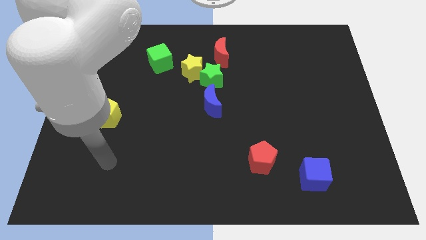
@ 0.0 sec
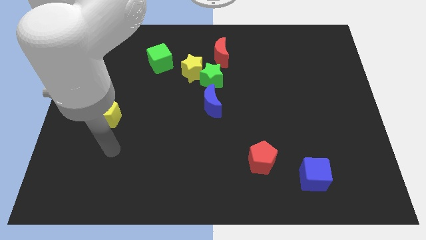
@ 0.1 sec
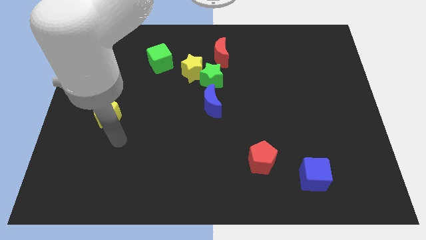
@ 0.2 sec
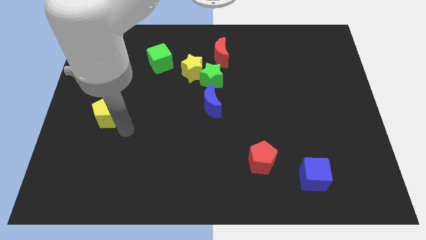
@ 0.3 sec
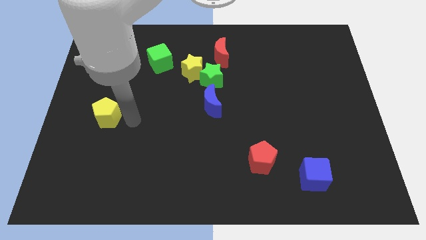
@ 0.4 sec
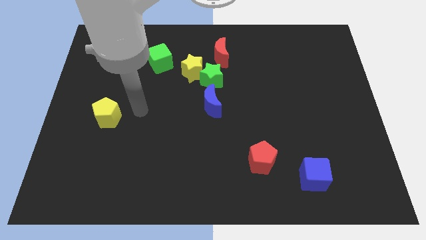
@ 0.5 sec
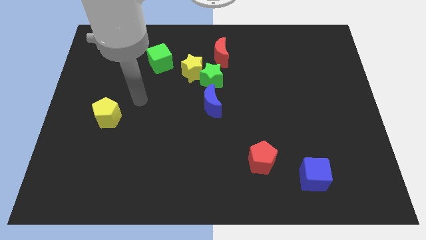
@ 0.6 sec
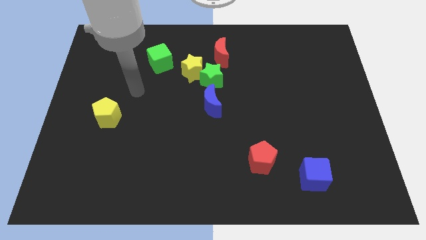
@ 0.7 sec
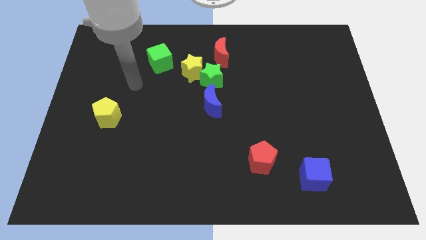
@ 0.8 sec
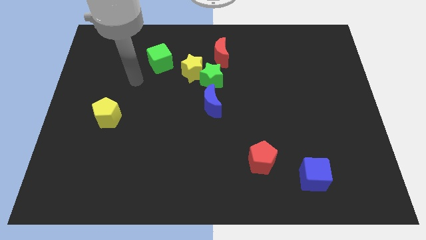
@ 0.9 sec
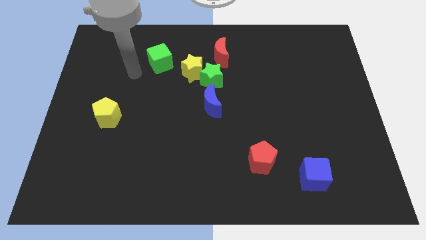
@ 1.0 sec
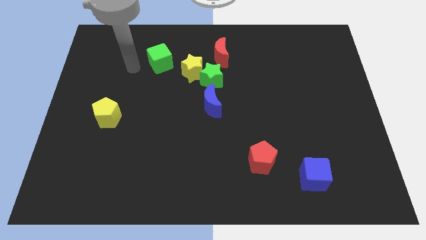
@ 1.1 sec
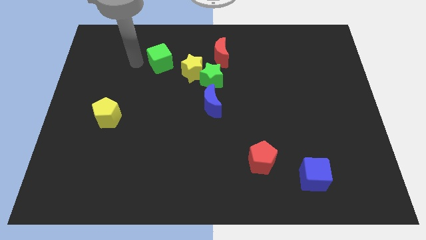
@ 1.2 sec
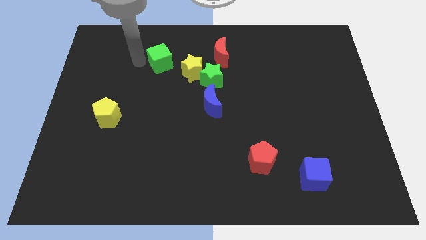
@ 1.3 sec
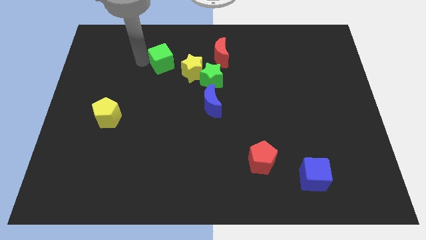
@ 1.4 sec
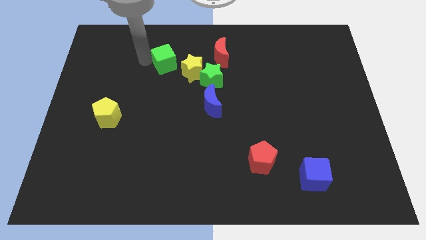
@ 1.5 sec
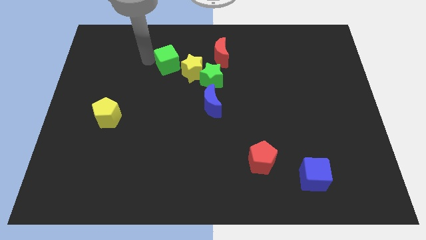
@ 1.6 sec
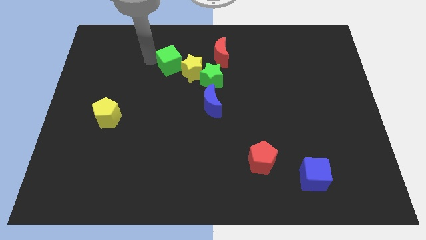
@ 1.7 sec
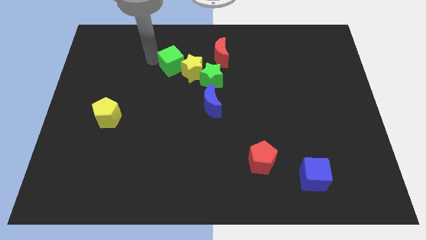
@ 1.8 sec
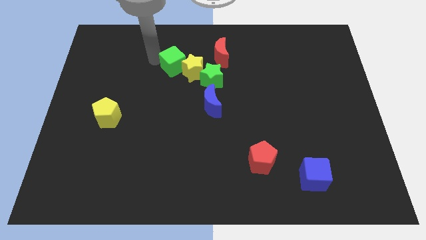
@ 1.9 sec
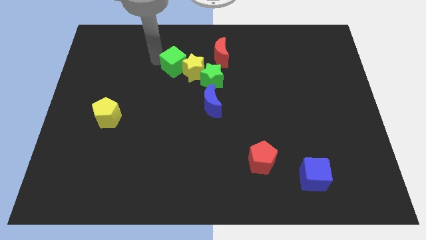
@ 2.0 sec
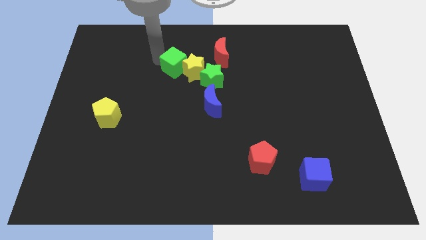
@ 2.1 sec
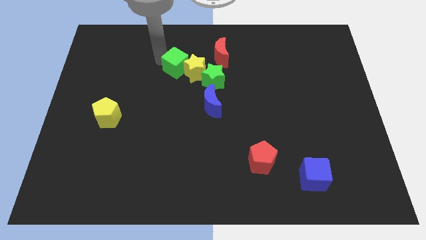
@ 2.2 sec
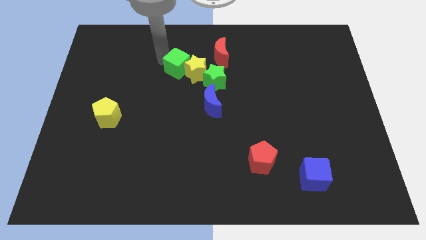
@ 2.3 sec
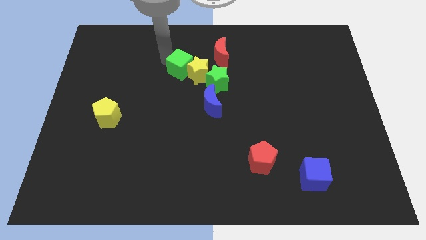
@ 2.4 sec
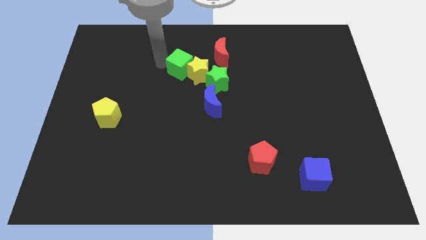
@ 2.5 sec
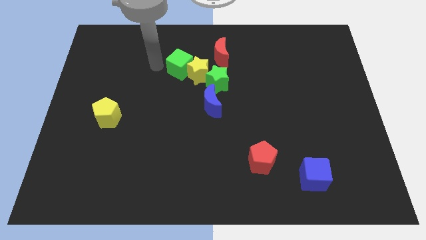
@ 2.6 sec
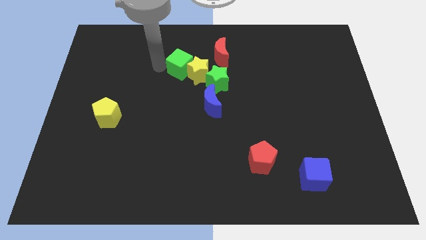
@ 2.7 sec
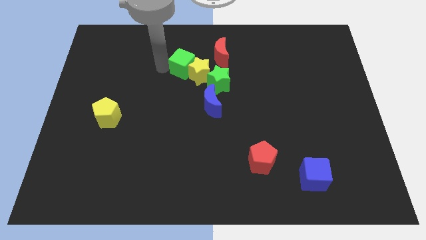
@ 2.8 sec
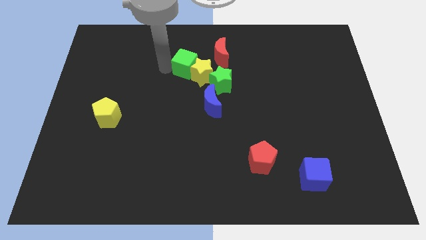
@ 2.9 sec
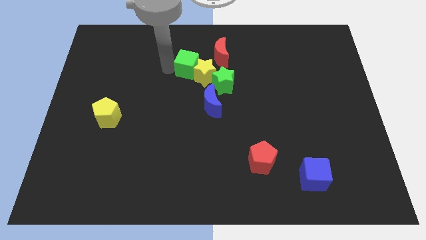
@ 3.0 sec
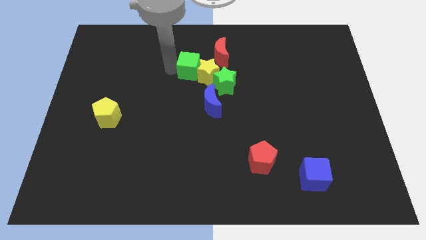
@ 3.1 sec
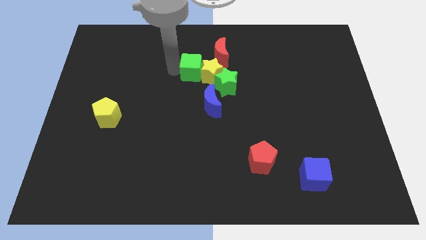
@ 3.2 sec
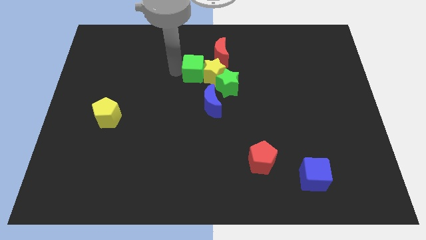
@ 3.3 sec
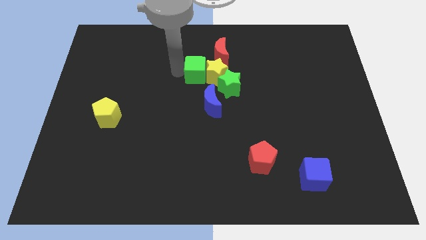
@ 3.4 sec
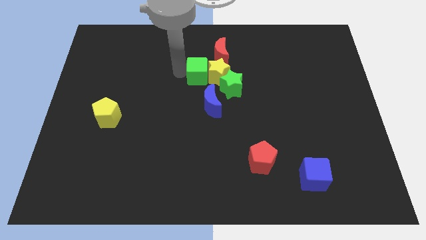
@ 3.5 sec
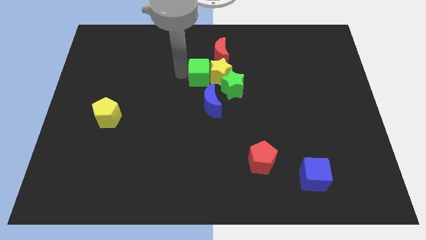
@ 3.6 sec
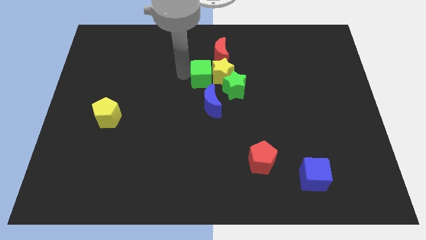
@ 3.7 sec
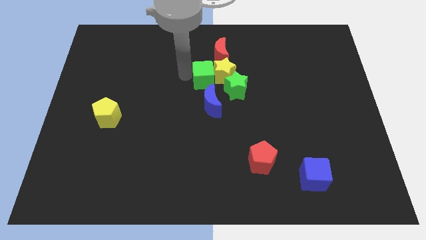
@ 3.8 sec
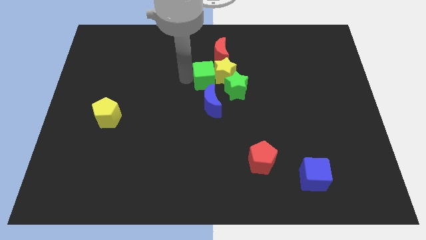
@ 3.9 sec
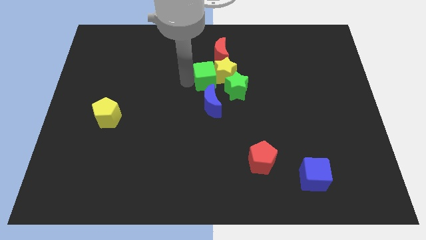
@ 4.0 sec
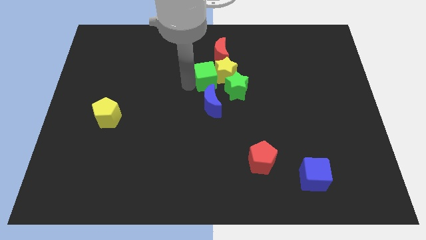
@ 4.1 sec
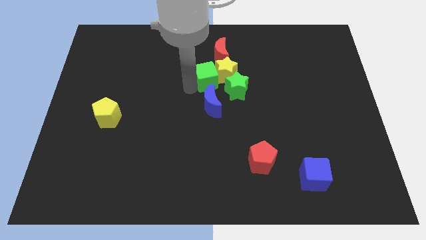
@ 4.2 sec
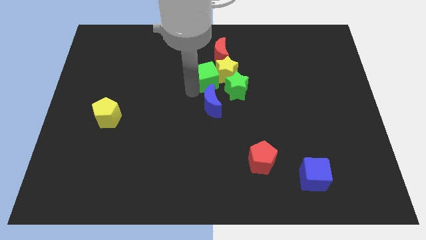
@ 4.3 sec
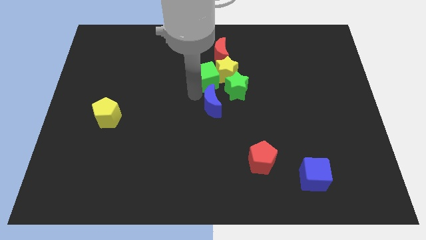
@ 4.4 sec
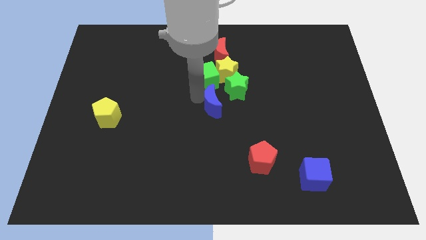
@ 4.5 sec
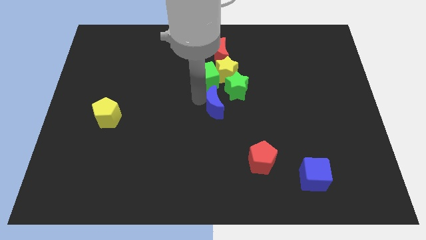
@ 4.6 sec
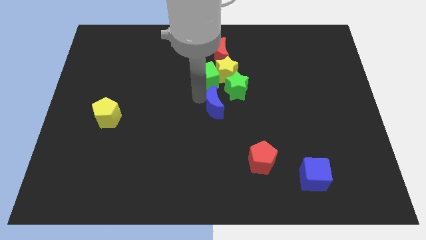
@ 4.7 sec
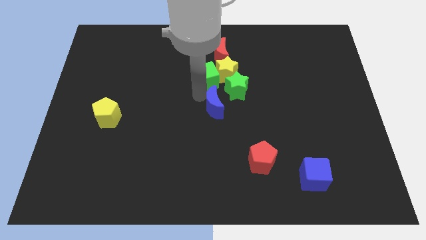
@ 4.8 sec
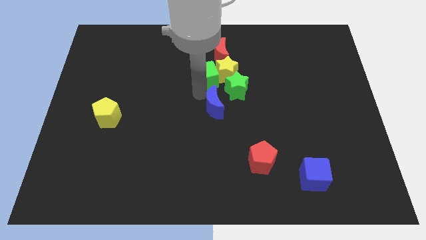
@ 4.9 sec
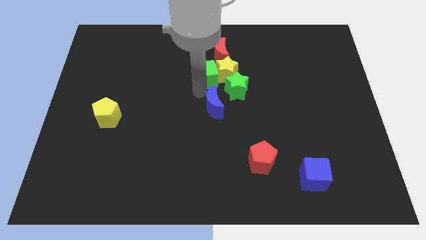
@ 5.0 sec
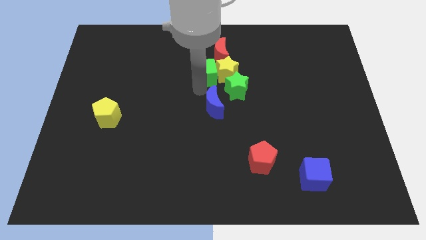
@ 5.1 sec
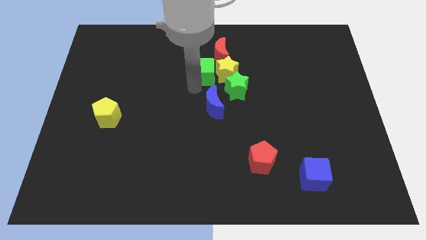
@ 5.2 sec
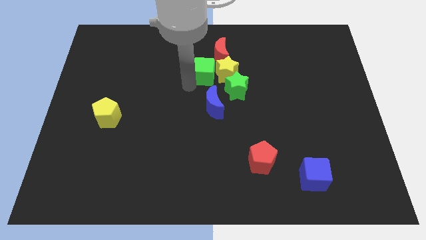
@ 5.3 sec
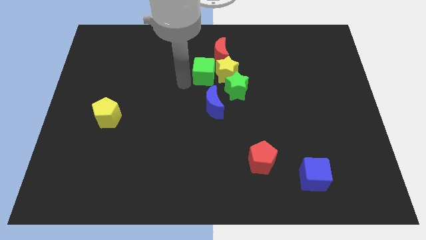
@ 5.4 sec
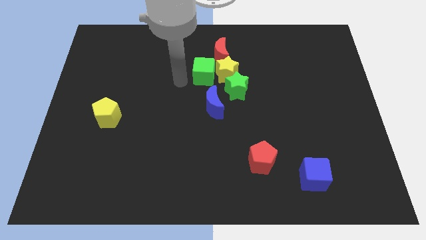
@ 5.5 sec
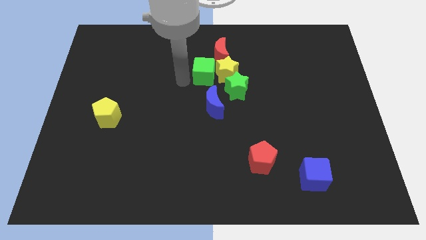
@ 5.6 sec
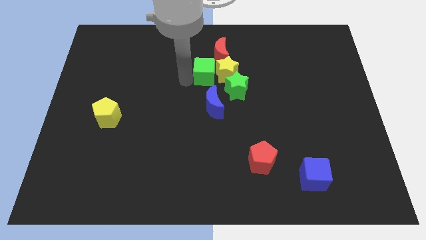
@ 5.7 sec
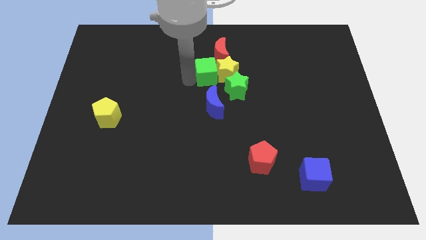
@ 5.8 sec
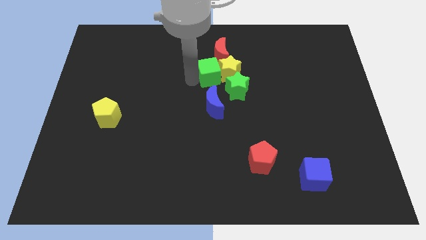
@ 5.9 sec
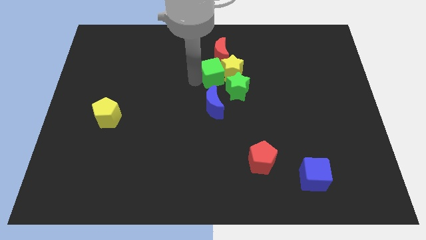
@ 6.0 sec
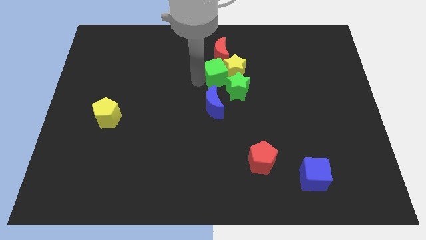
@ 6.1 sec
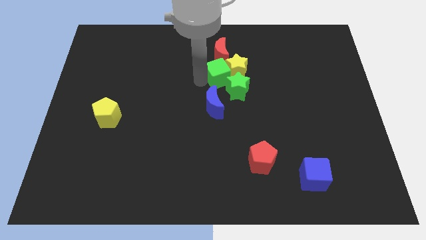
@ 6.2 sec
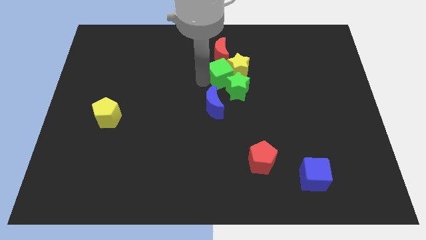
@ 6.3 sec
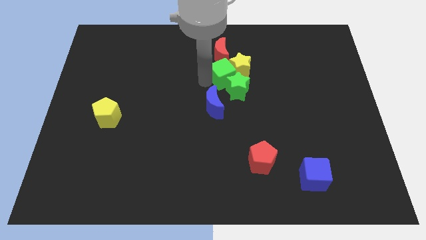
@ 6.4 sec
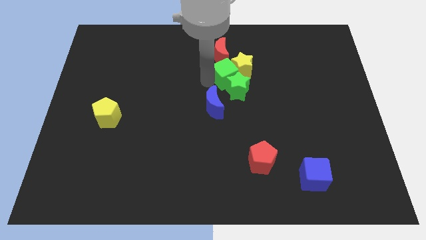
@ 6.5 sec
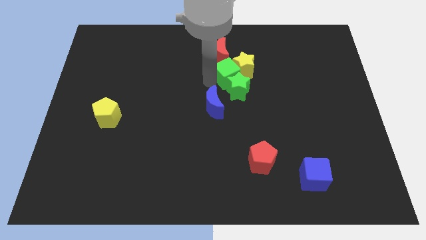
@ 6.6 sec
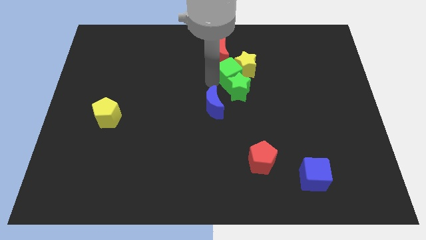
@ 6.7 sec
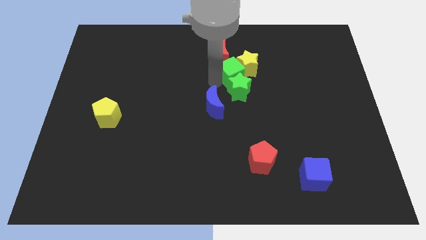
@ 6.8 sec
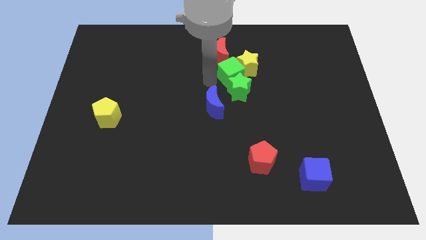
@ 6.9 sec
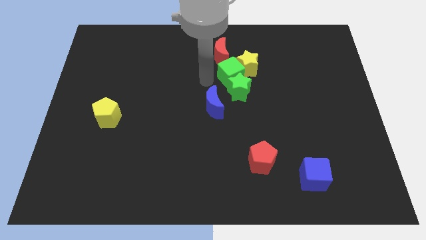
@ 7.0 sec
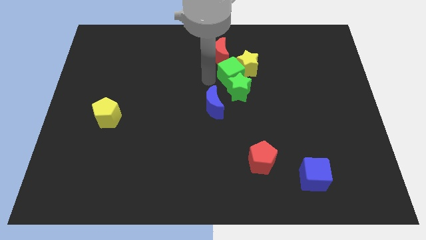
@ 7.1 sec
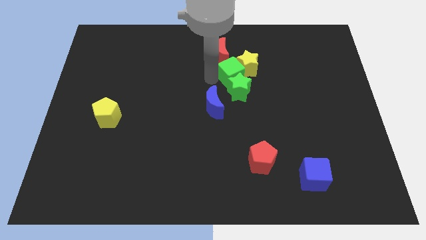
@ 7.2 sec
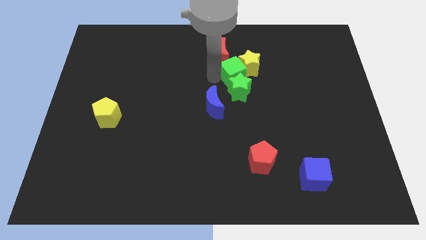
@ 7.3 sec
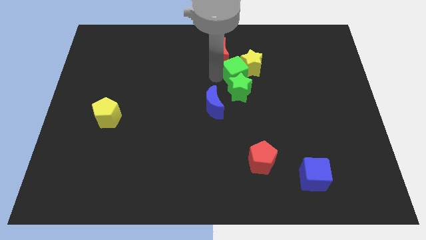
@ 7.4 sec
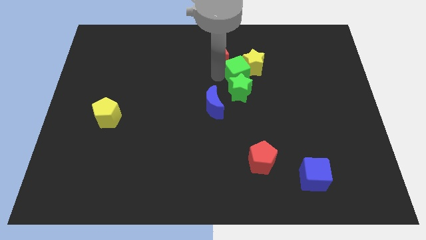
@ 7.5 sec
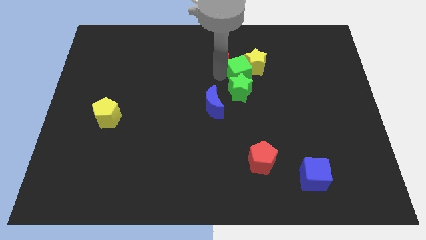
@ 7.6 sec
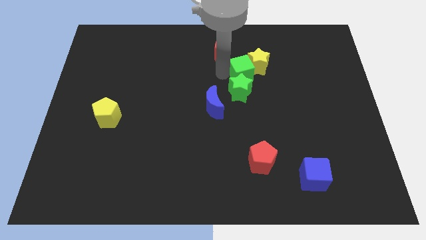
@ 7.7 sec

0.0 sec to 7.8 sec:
push the green cube to the right

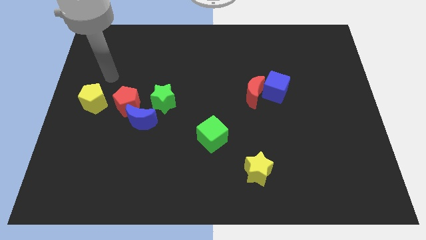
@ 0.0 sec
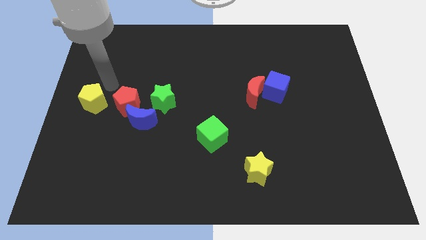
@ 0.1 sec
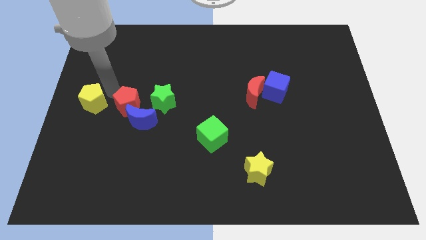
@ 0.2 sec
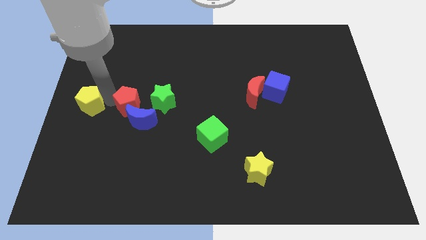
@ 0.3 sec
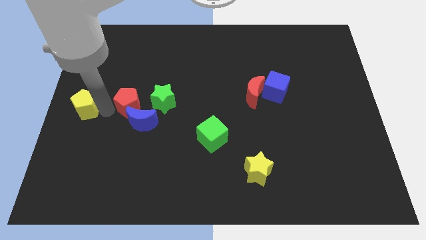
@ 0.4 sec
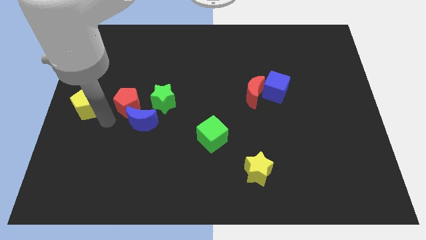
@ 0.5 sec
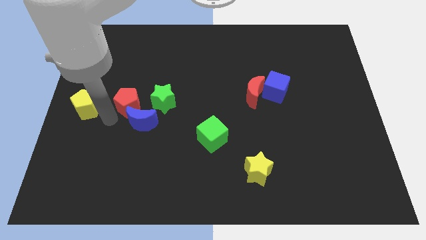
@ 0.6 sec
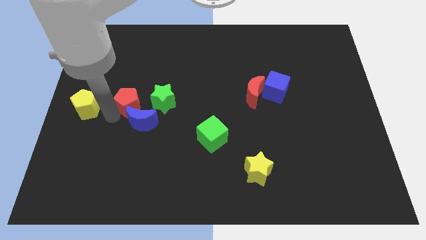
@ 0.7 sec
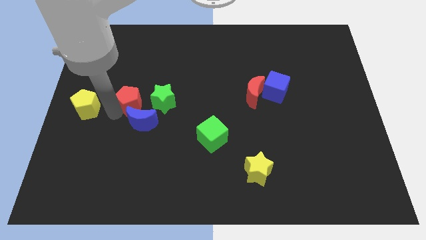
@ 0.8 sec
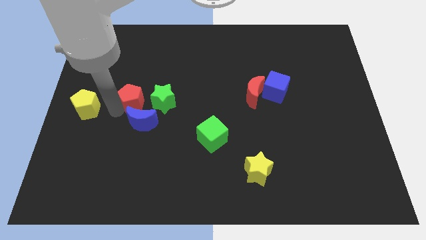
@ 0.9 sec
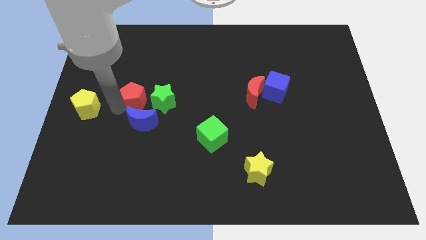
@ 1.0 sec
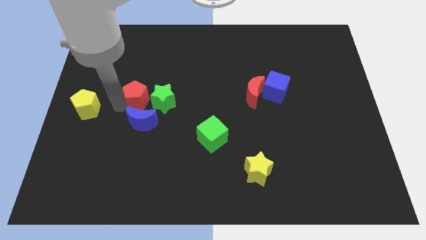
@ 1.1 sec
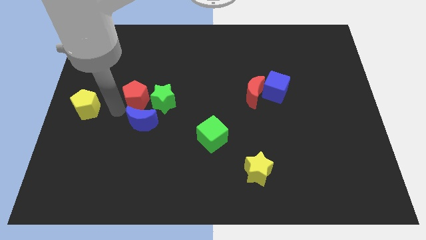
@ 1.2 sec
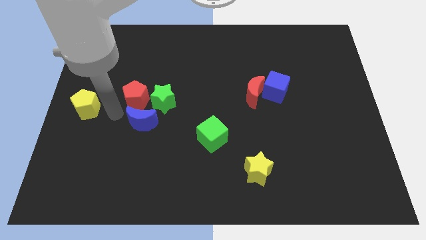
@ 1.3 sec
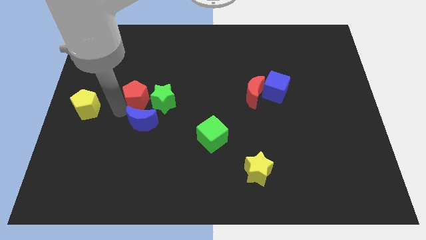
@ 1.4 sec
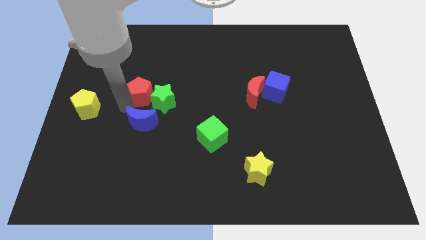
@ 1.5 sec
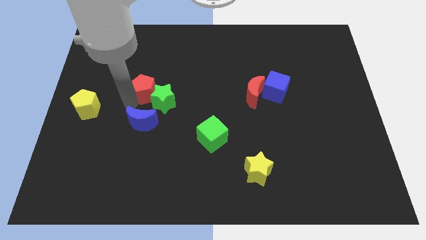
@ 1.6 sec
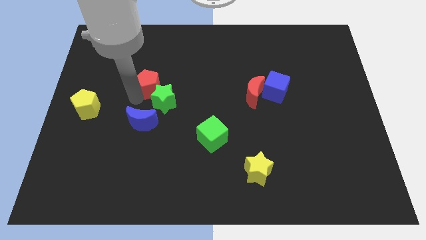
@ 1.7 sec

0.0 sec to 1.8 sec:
slide the red pentagon a bit diagonally upwards and right
